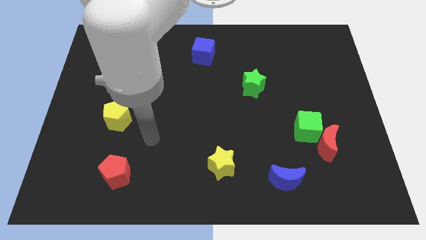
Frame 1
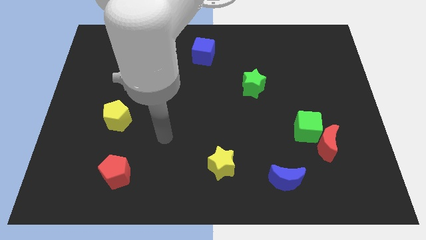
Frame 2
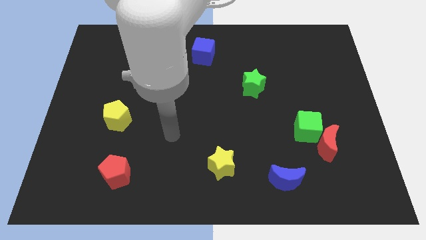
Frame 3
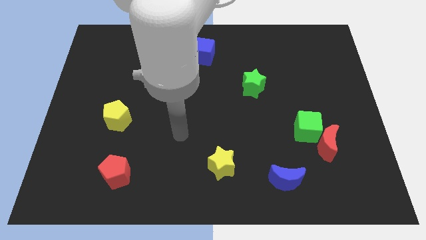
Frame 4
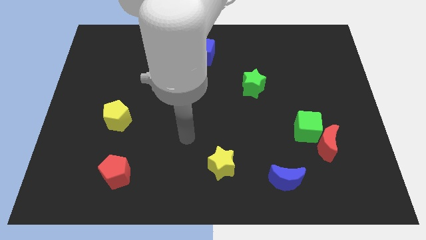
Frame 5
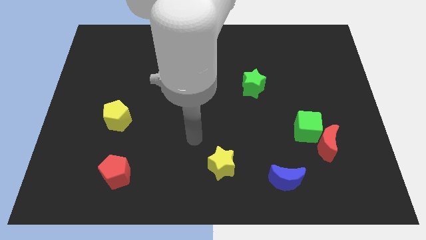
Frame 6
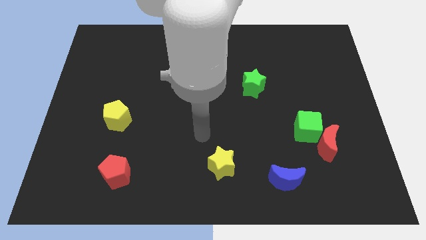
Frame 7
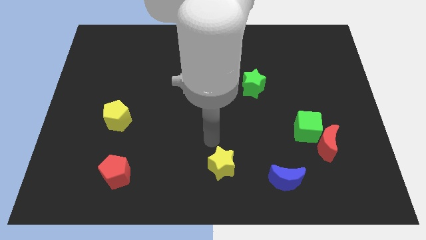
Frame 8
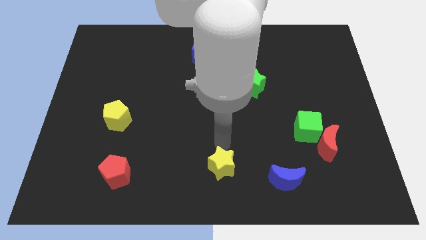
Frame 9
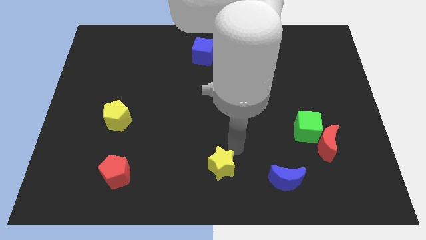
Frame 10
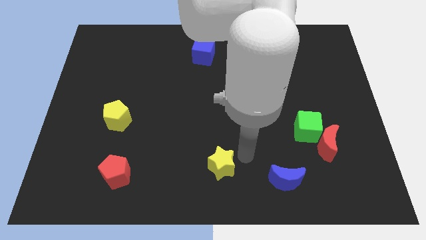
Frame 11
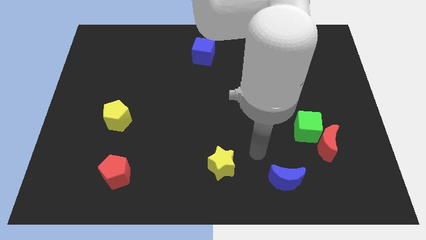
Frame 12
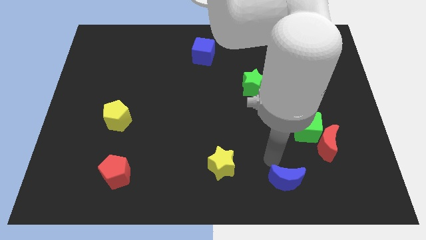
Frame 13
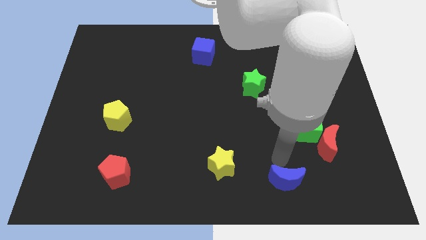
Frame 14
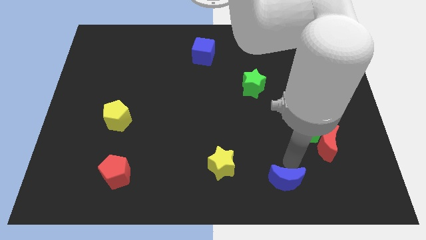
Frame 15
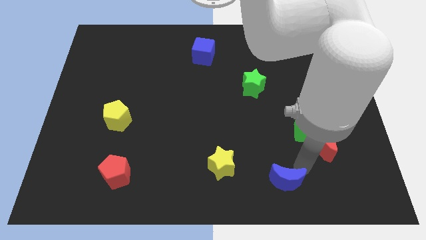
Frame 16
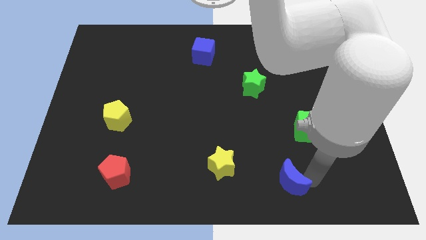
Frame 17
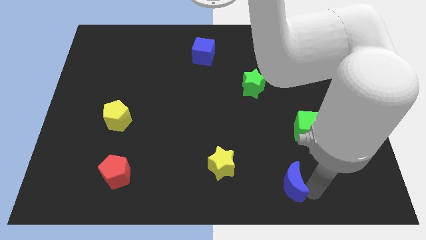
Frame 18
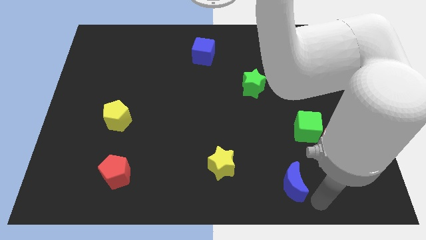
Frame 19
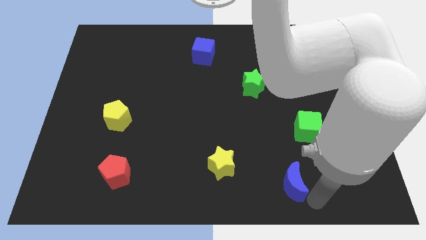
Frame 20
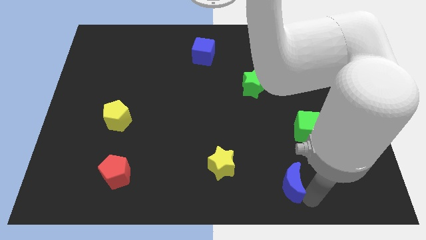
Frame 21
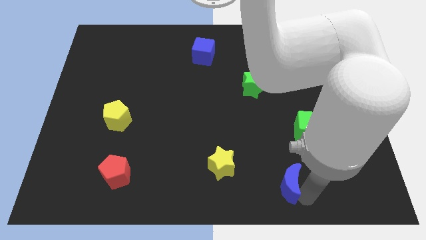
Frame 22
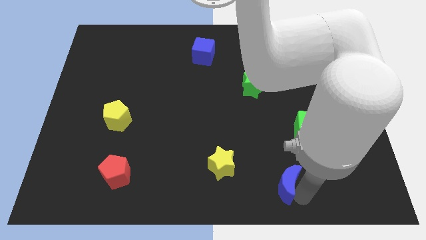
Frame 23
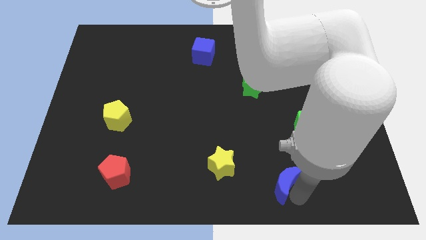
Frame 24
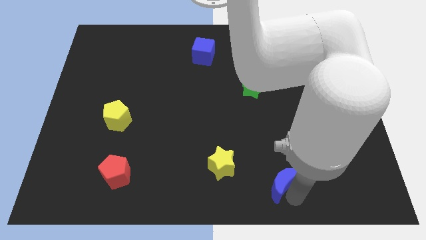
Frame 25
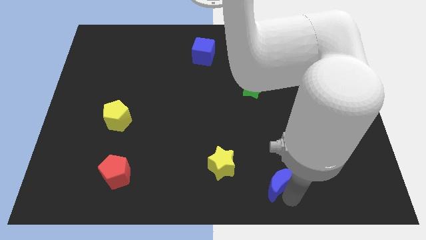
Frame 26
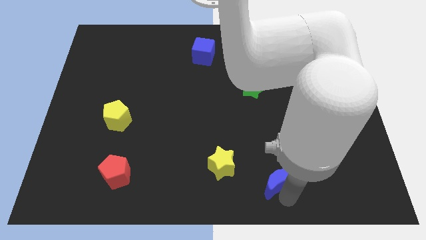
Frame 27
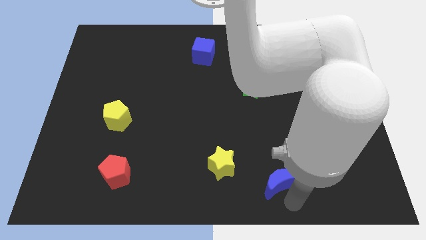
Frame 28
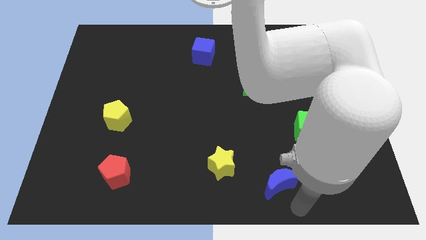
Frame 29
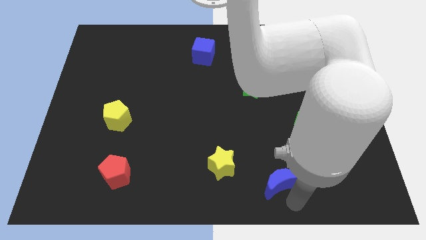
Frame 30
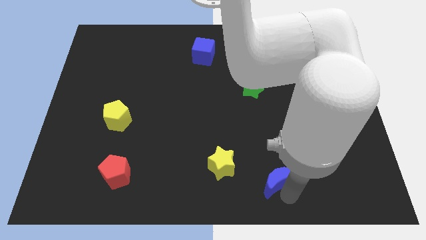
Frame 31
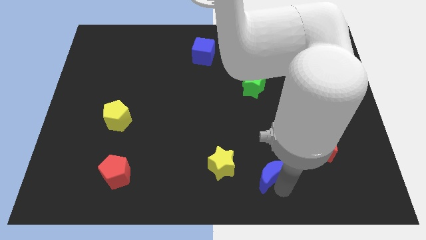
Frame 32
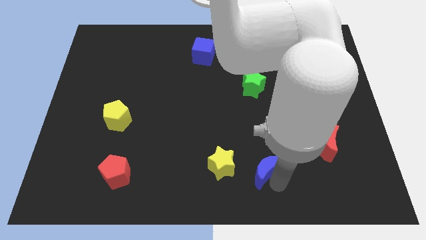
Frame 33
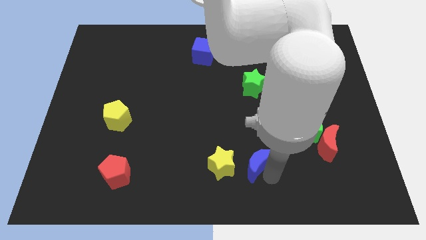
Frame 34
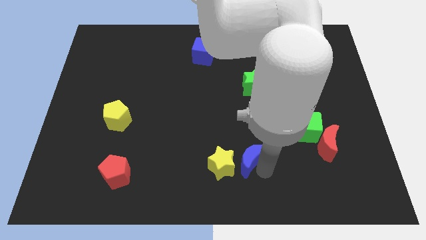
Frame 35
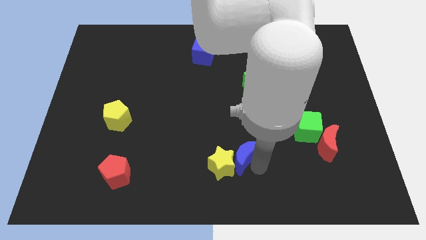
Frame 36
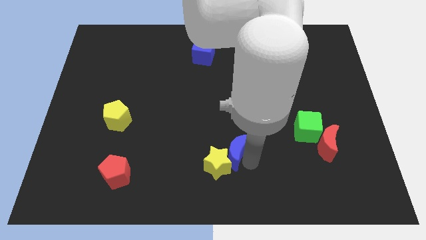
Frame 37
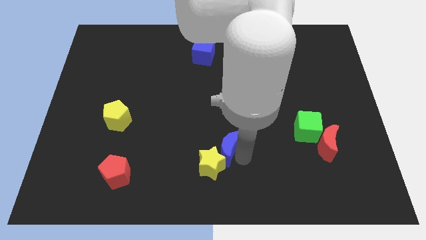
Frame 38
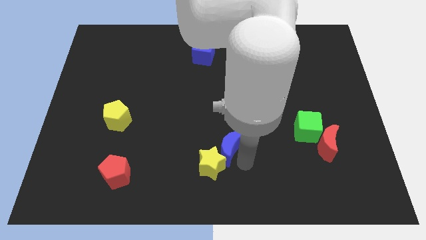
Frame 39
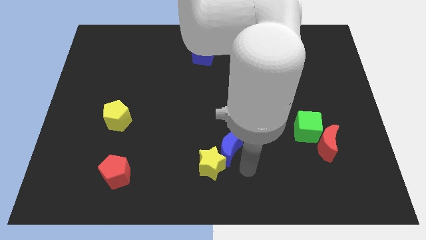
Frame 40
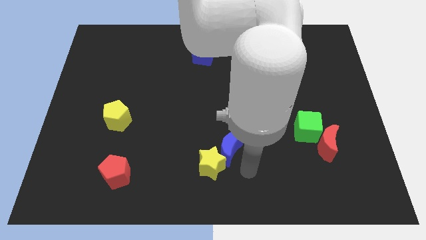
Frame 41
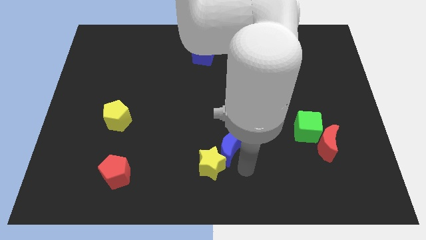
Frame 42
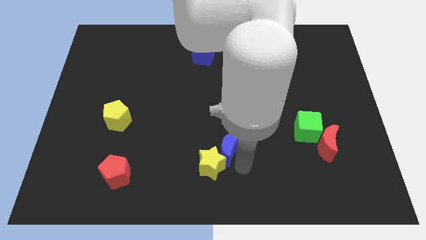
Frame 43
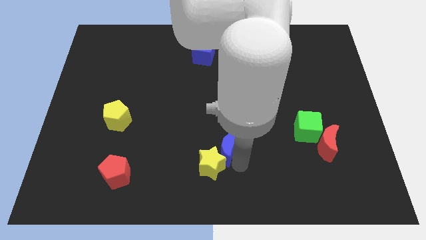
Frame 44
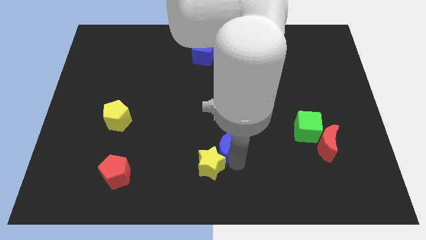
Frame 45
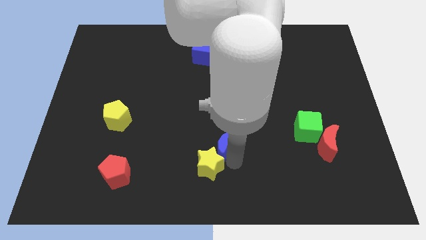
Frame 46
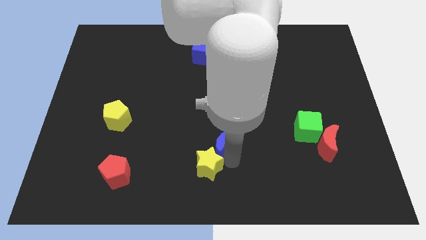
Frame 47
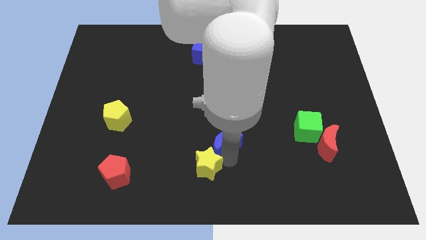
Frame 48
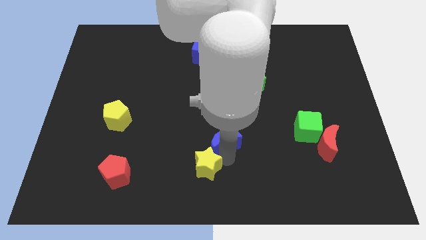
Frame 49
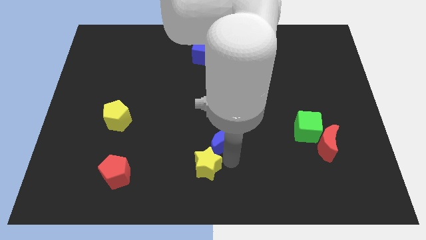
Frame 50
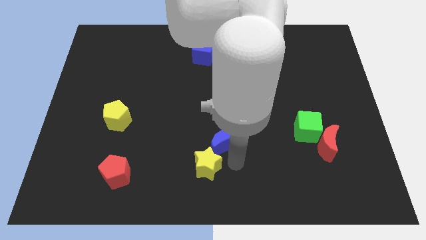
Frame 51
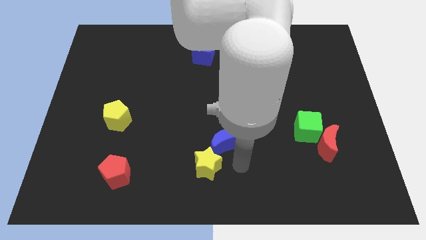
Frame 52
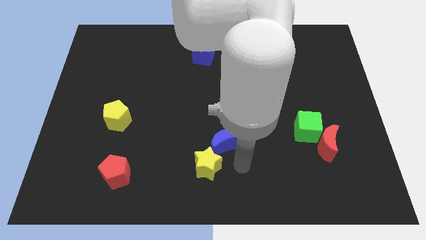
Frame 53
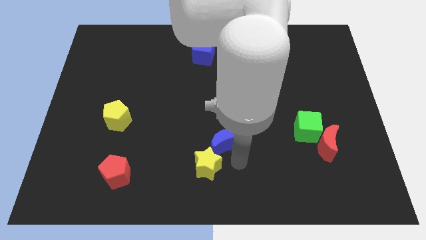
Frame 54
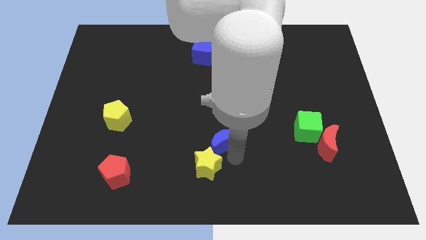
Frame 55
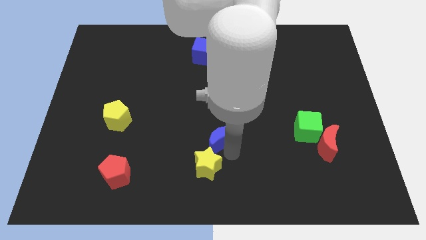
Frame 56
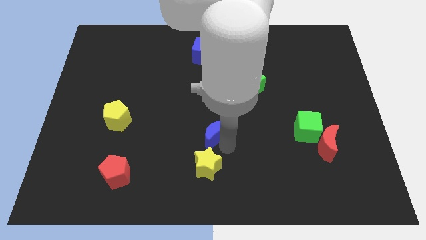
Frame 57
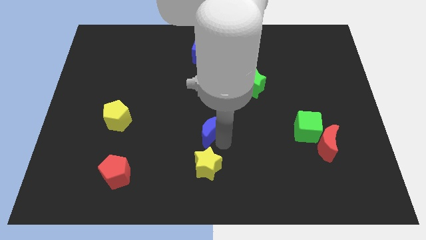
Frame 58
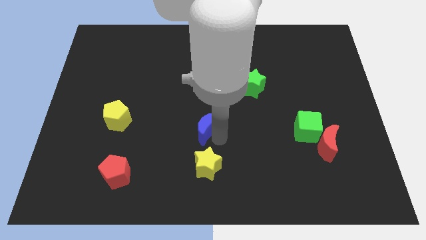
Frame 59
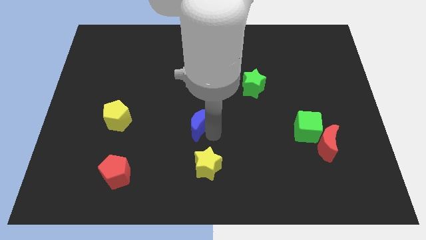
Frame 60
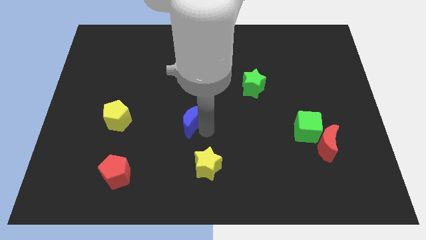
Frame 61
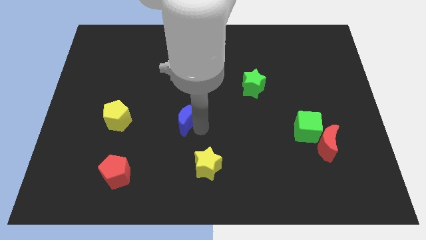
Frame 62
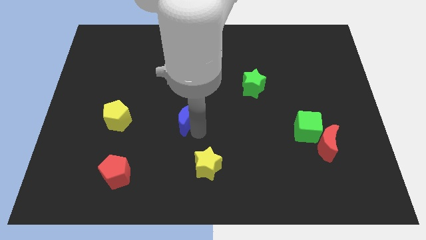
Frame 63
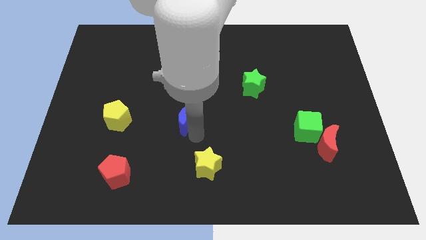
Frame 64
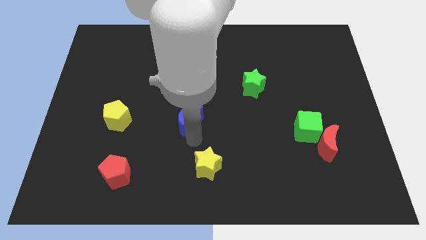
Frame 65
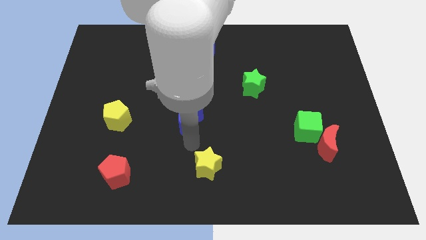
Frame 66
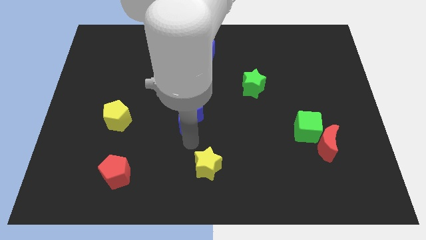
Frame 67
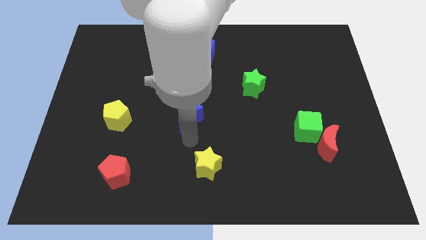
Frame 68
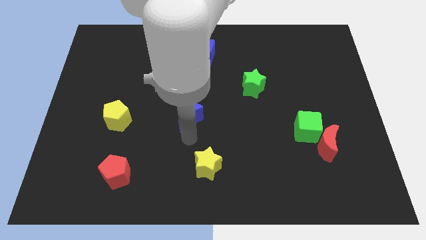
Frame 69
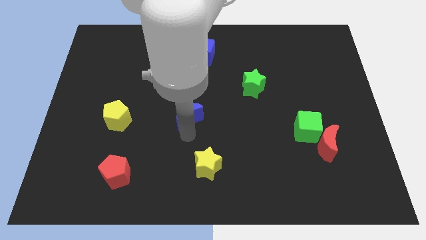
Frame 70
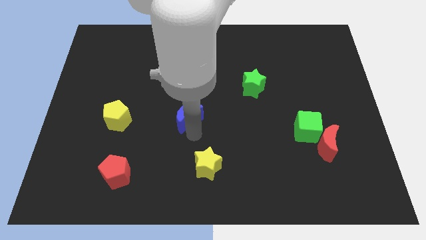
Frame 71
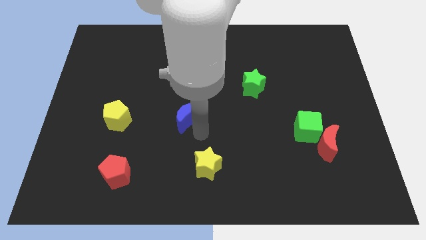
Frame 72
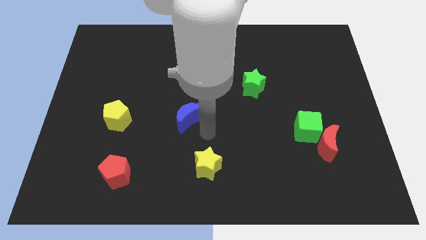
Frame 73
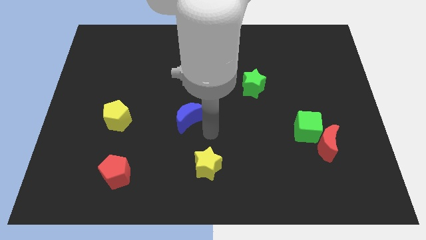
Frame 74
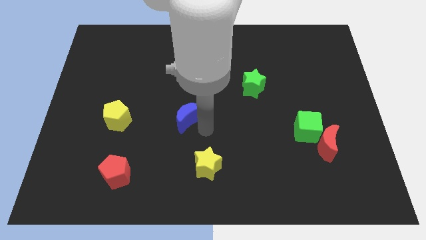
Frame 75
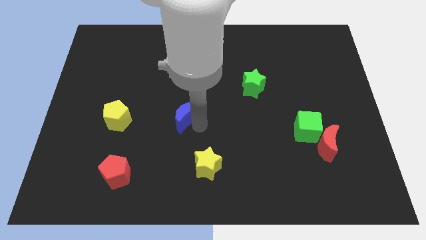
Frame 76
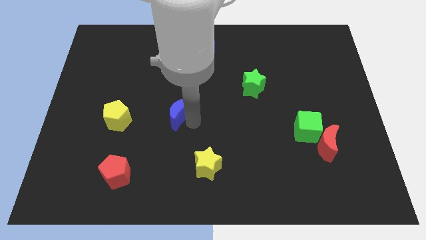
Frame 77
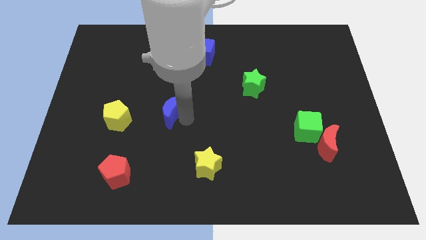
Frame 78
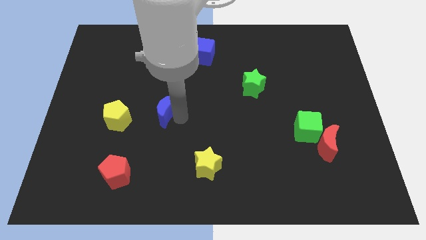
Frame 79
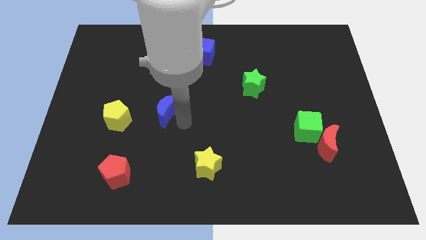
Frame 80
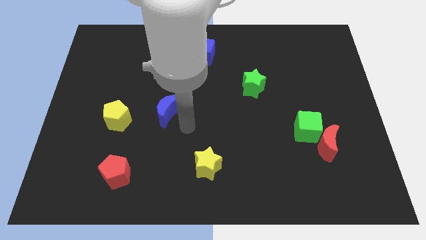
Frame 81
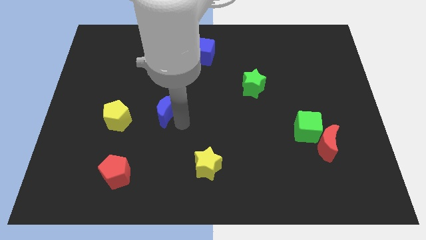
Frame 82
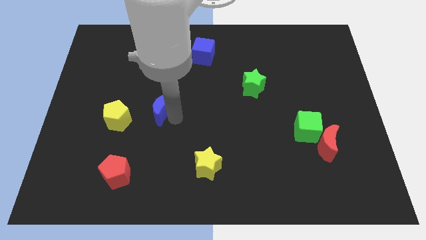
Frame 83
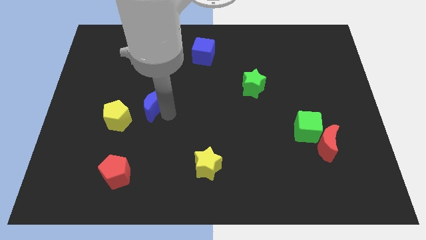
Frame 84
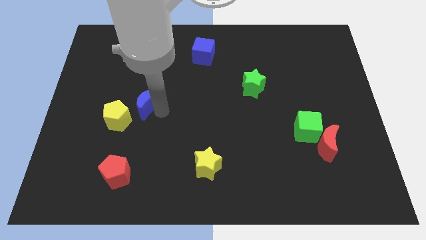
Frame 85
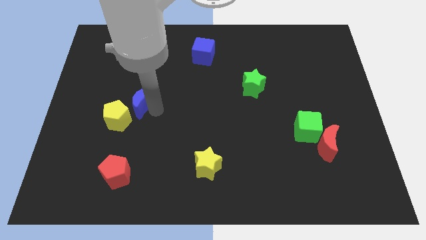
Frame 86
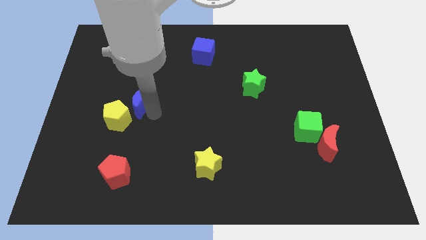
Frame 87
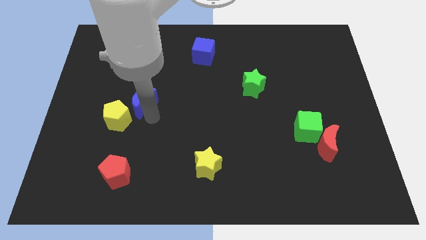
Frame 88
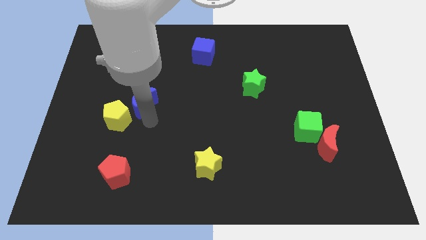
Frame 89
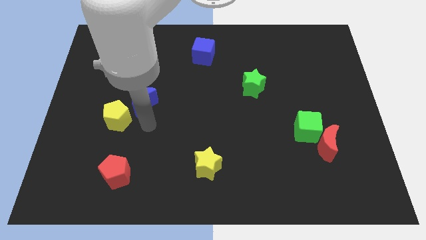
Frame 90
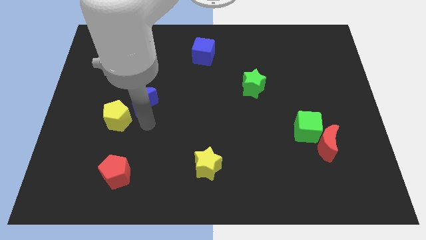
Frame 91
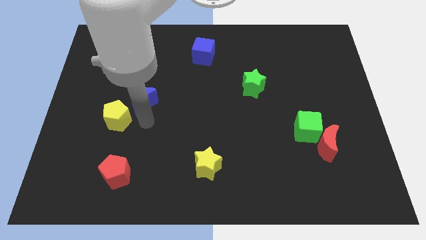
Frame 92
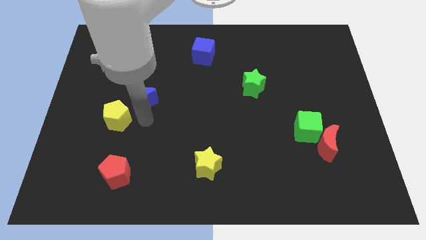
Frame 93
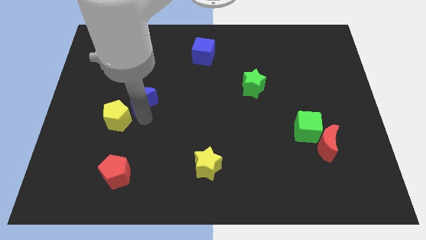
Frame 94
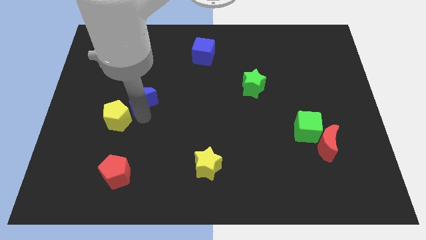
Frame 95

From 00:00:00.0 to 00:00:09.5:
put the blue moon above the yellow pentagon
